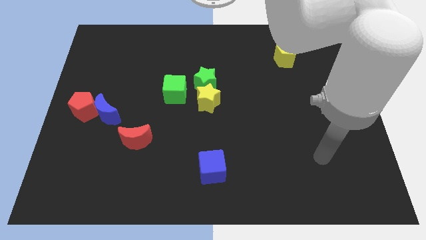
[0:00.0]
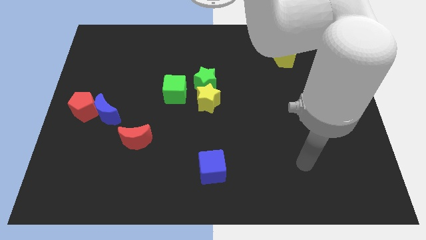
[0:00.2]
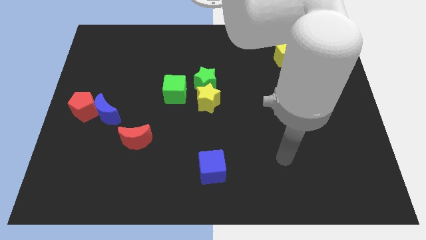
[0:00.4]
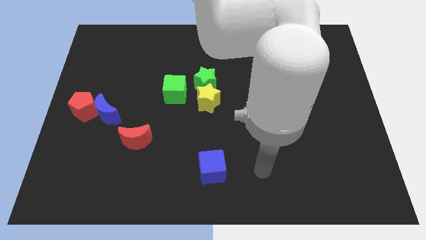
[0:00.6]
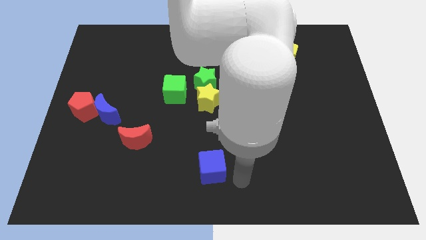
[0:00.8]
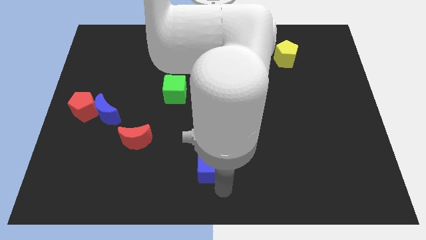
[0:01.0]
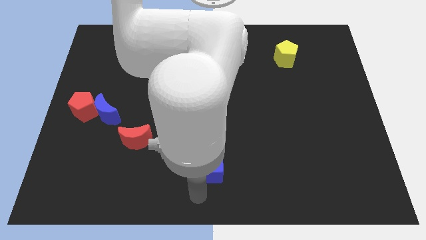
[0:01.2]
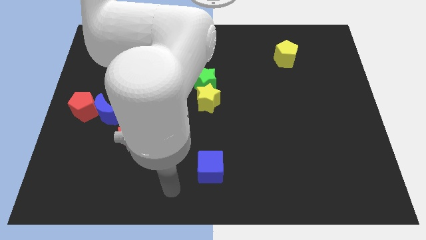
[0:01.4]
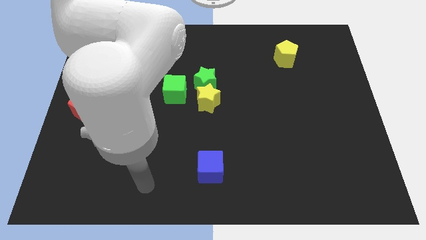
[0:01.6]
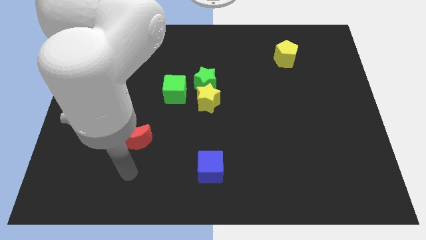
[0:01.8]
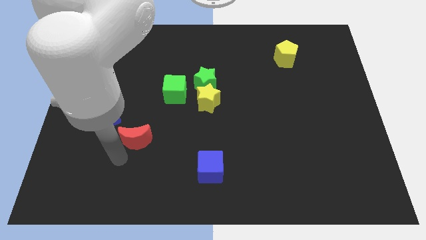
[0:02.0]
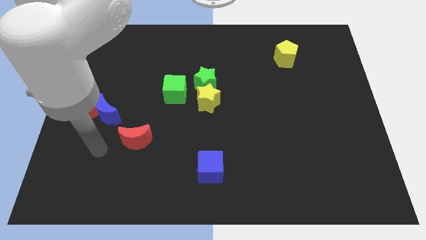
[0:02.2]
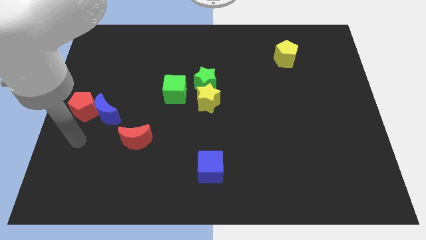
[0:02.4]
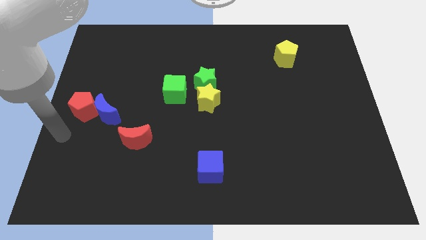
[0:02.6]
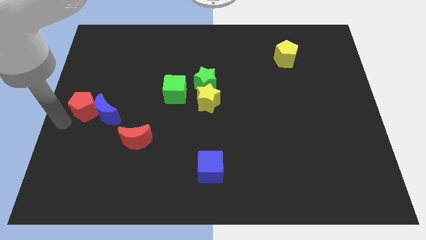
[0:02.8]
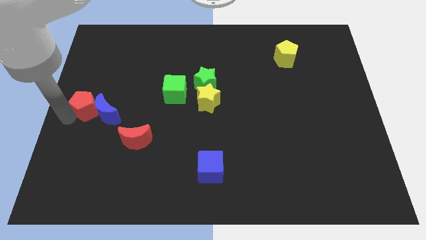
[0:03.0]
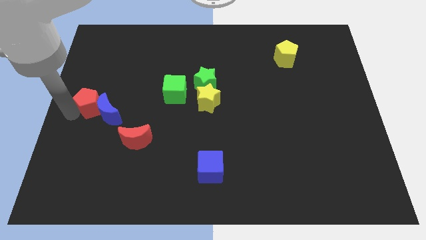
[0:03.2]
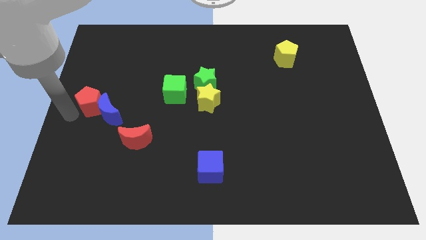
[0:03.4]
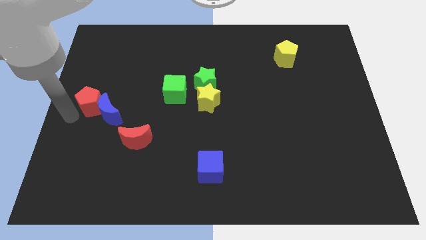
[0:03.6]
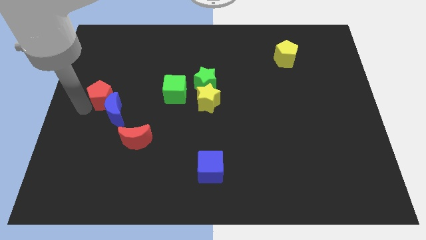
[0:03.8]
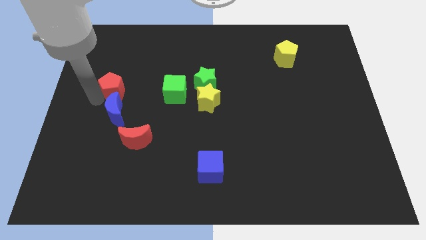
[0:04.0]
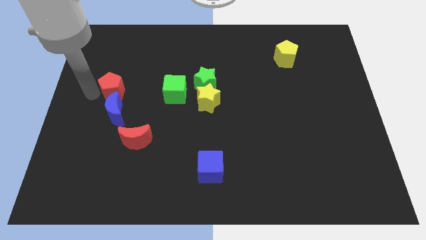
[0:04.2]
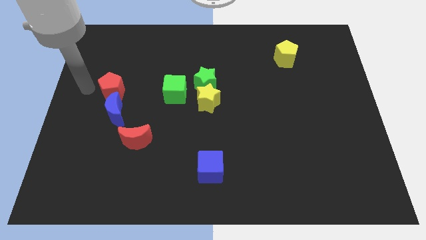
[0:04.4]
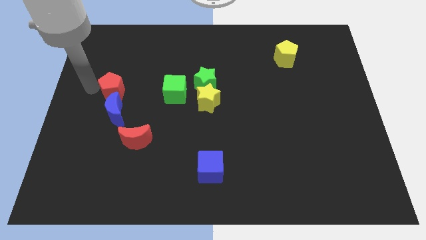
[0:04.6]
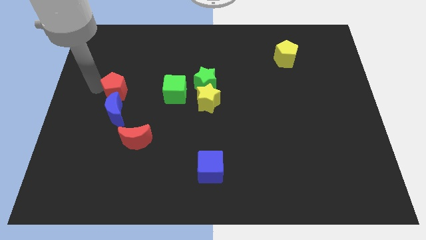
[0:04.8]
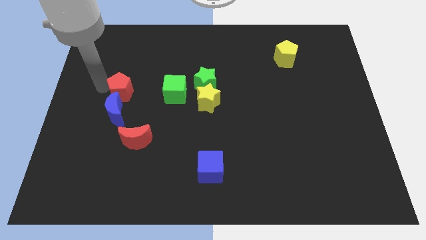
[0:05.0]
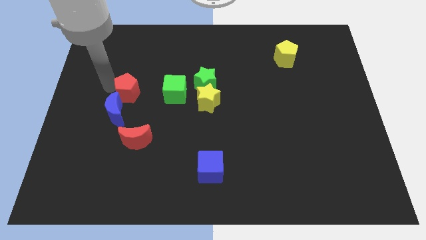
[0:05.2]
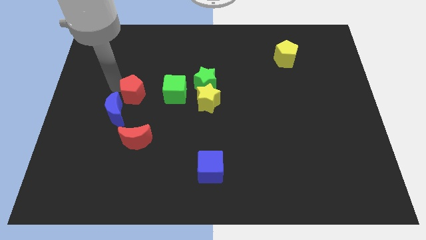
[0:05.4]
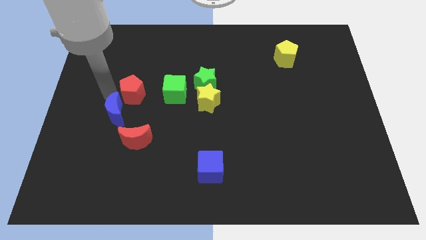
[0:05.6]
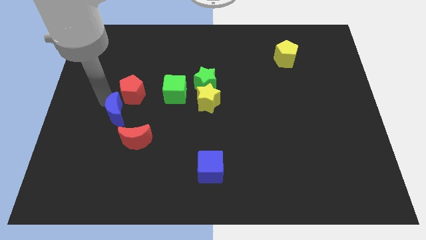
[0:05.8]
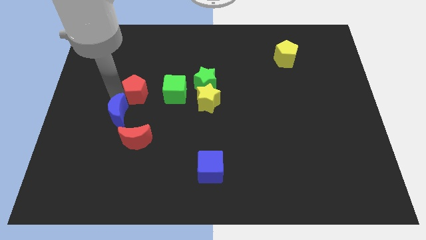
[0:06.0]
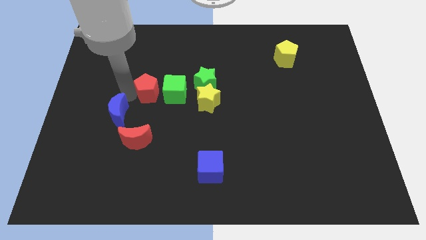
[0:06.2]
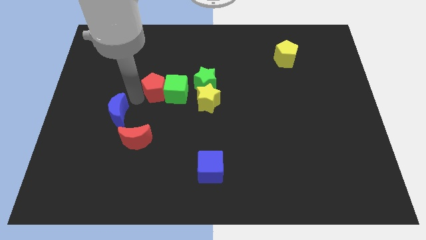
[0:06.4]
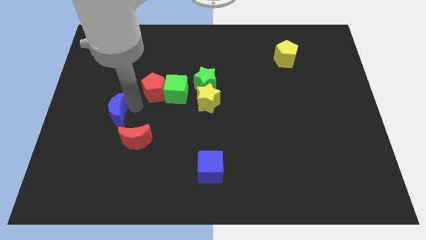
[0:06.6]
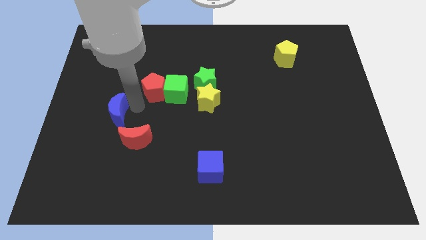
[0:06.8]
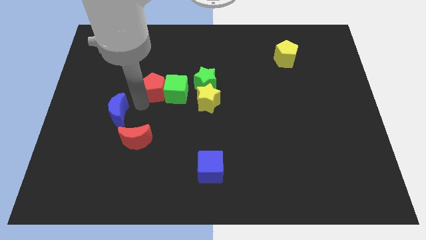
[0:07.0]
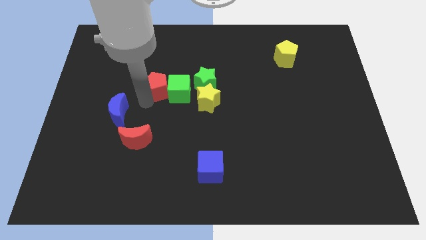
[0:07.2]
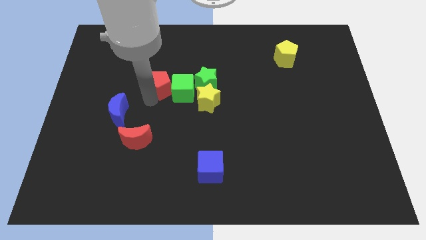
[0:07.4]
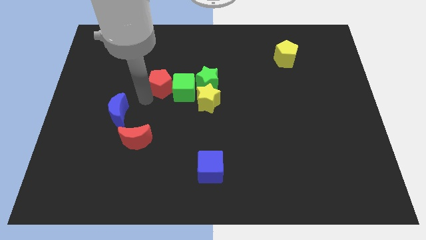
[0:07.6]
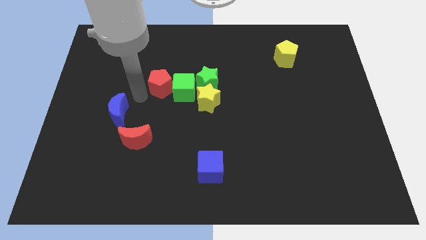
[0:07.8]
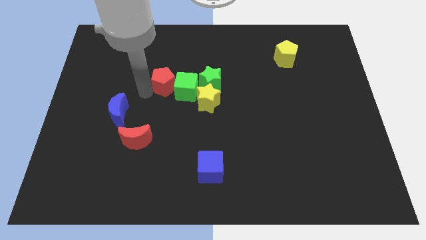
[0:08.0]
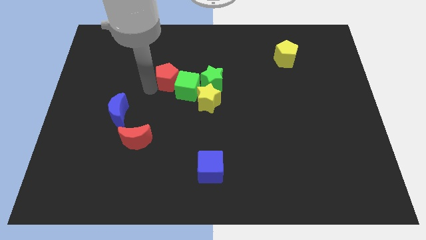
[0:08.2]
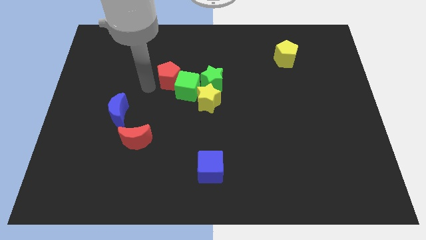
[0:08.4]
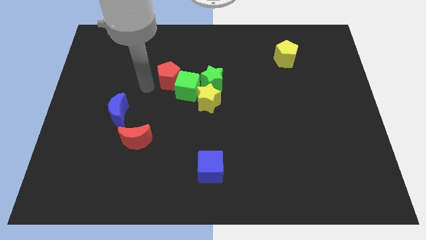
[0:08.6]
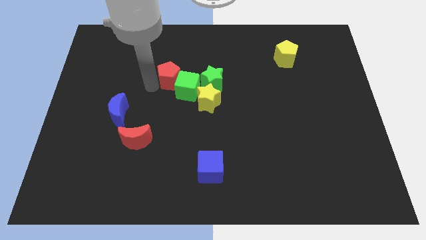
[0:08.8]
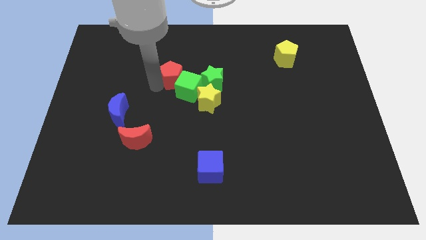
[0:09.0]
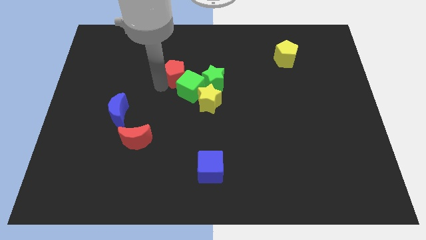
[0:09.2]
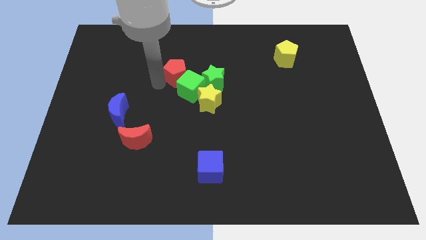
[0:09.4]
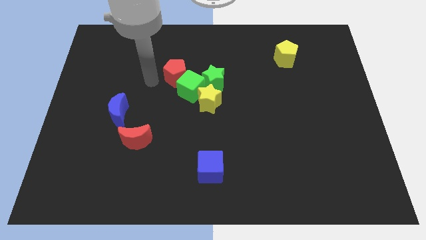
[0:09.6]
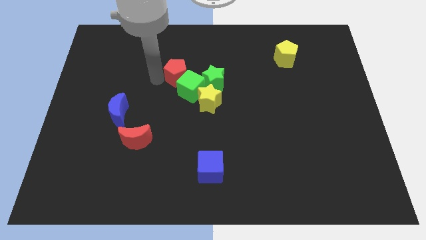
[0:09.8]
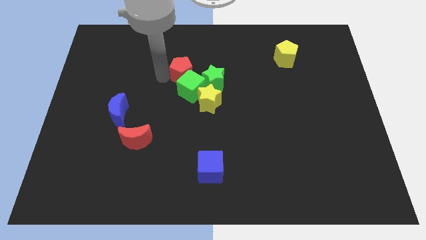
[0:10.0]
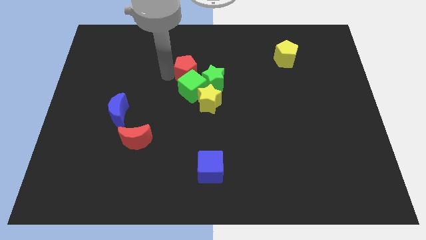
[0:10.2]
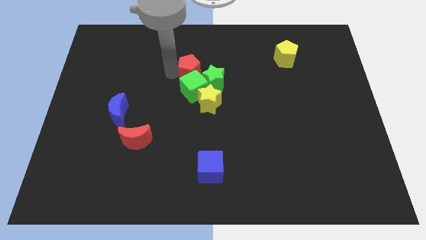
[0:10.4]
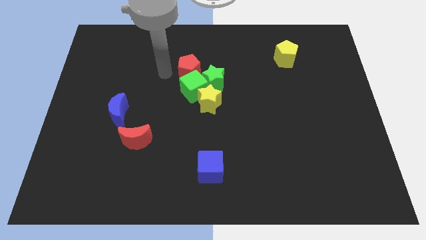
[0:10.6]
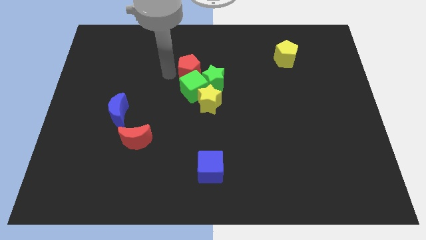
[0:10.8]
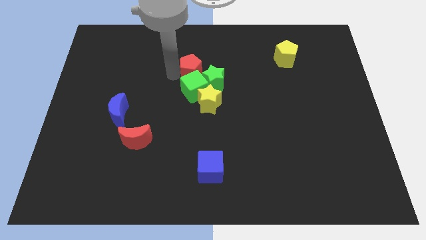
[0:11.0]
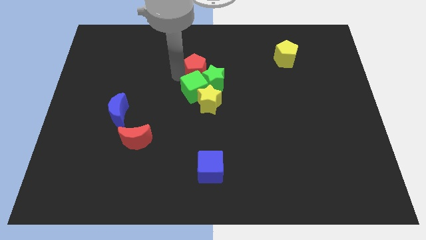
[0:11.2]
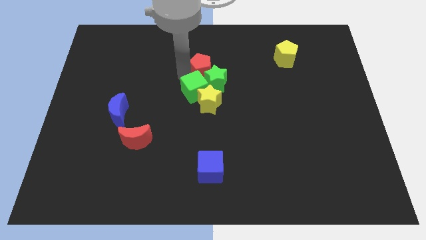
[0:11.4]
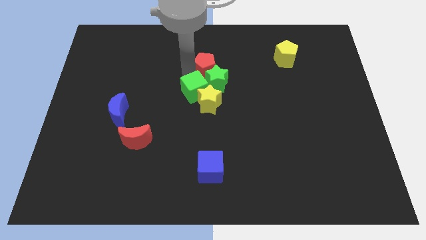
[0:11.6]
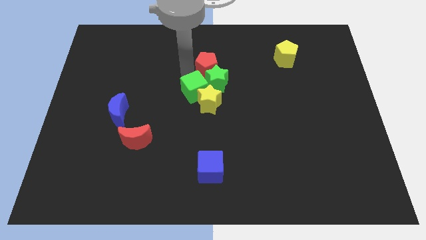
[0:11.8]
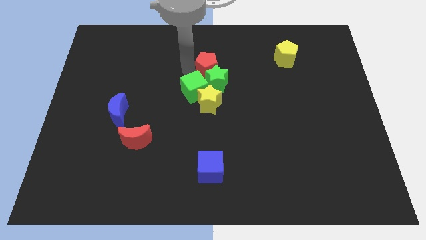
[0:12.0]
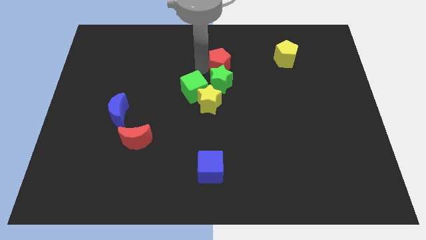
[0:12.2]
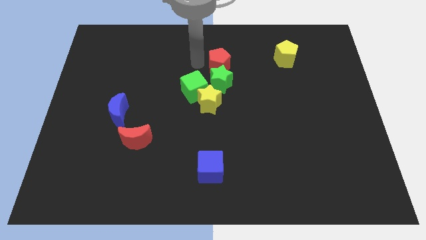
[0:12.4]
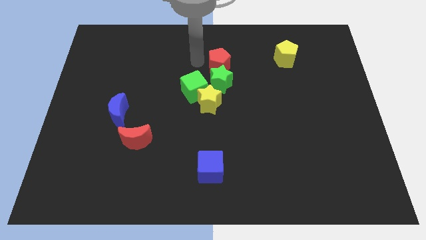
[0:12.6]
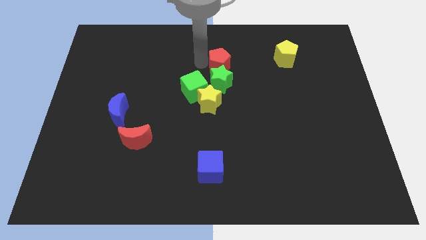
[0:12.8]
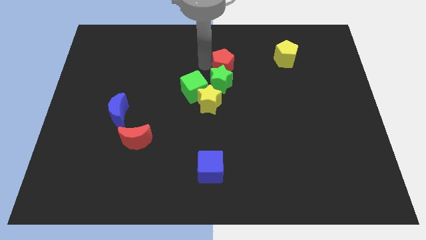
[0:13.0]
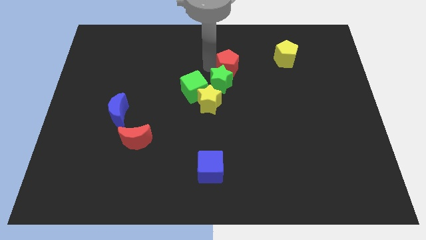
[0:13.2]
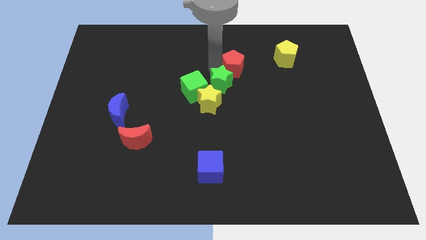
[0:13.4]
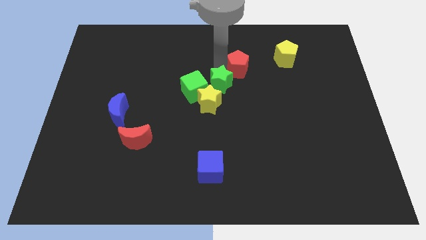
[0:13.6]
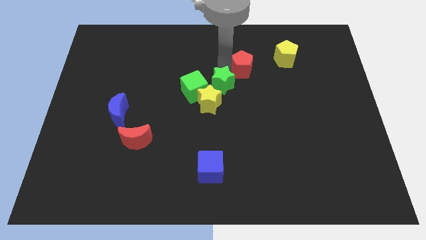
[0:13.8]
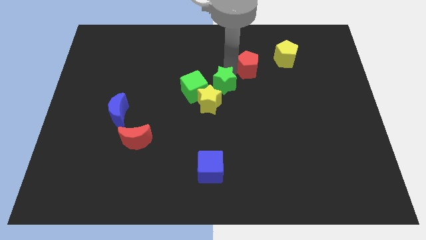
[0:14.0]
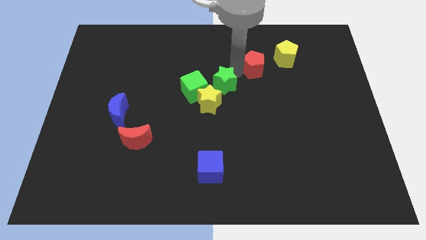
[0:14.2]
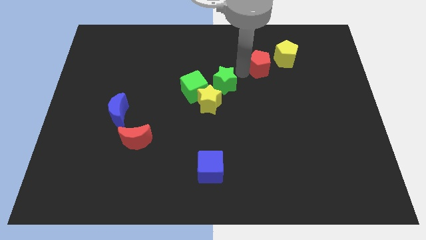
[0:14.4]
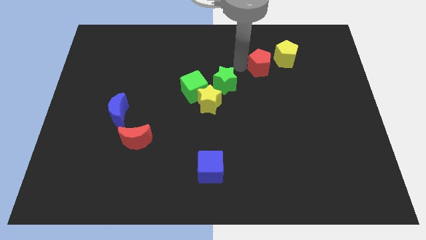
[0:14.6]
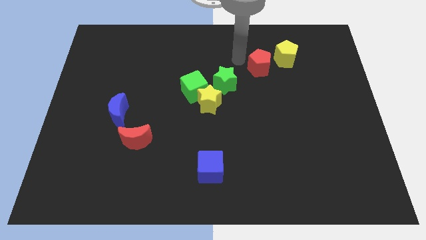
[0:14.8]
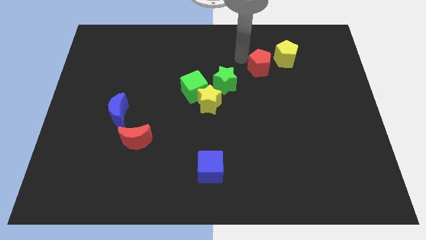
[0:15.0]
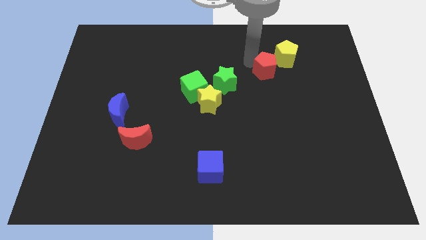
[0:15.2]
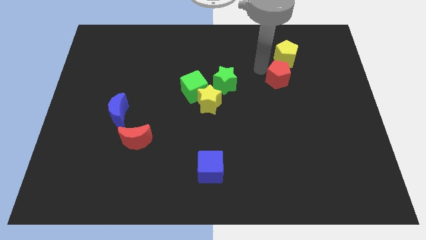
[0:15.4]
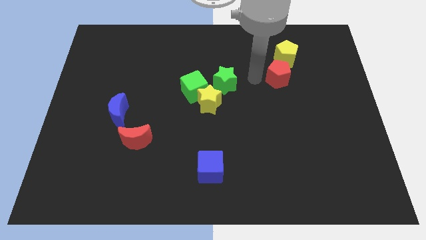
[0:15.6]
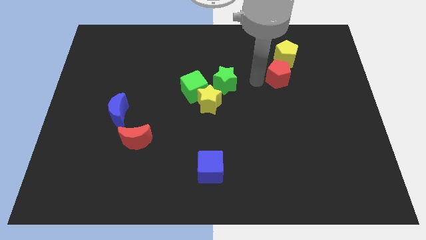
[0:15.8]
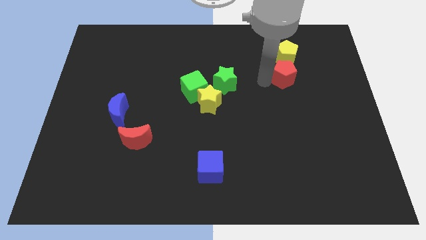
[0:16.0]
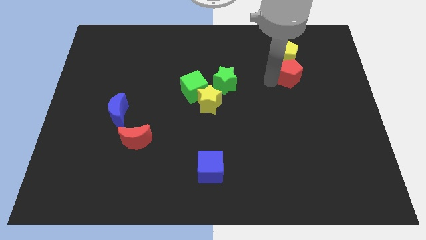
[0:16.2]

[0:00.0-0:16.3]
slide the red pentagon to the bottom right side of the yellow pentagon
